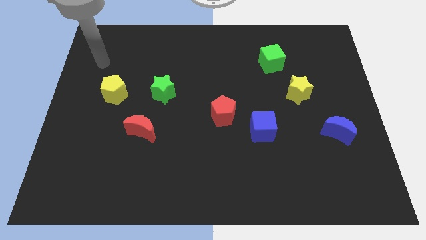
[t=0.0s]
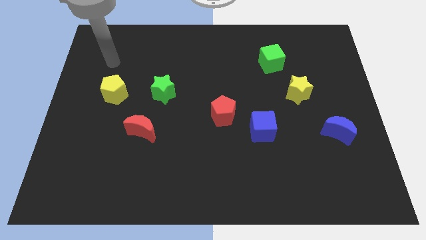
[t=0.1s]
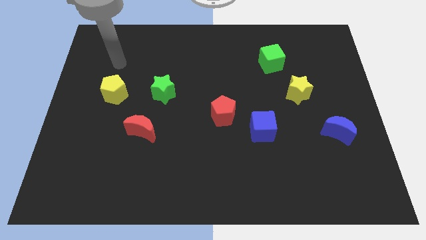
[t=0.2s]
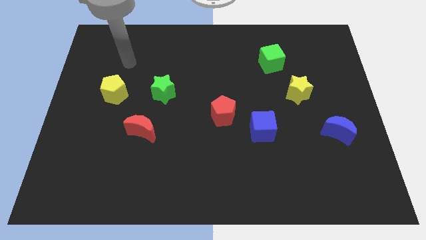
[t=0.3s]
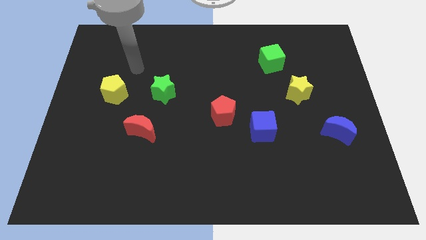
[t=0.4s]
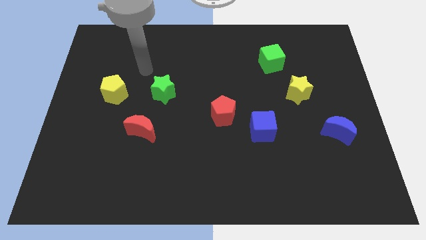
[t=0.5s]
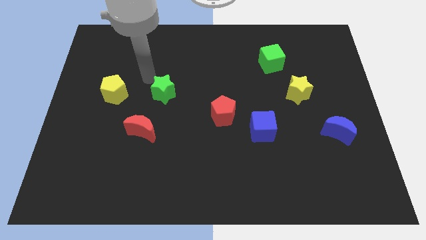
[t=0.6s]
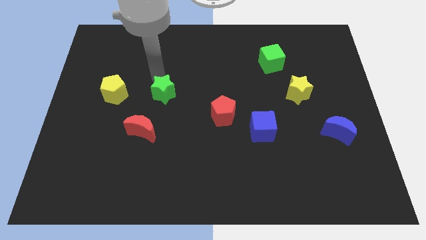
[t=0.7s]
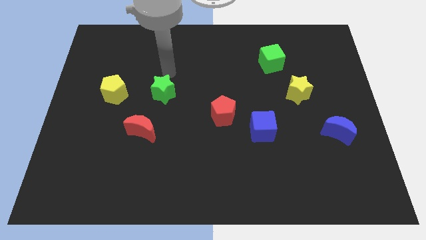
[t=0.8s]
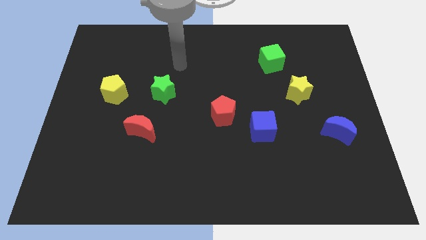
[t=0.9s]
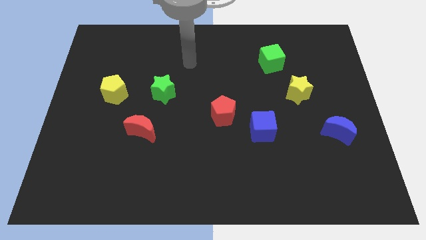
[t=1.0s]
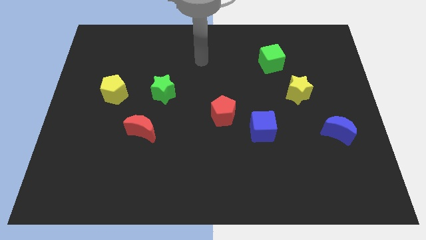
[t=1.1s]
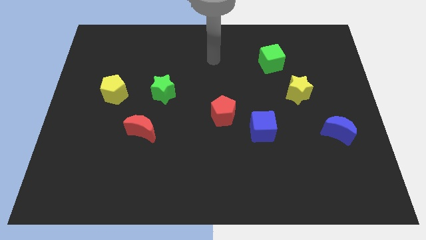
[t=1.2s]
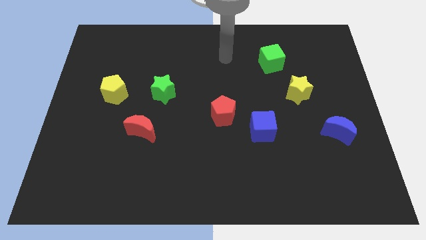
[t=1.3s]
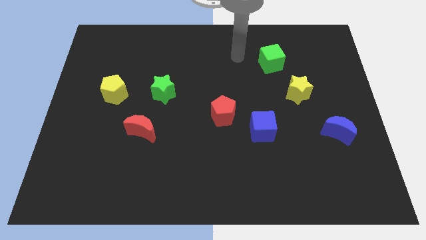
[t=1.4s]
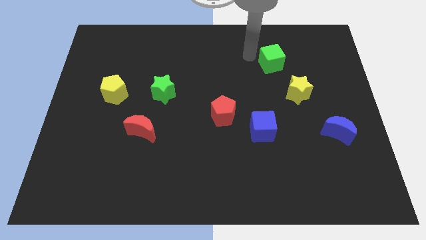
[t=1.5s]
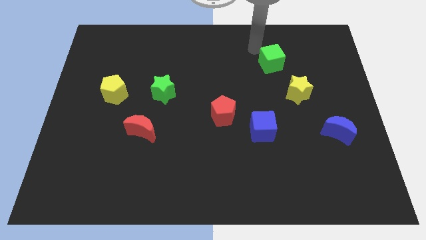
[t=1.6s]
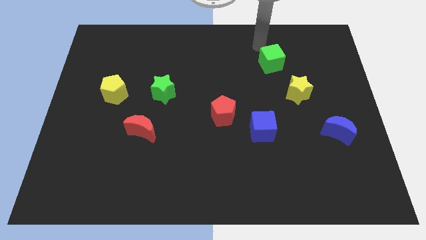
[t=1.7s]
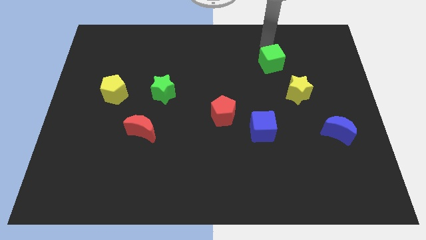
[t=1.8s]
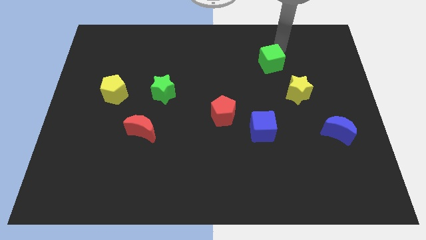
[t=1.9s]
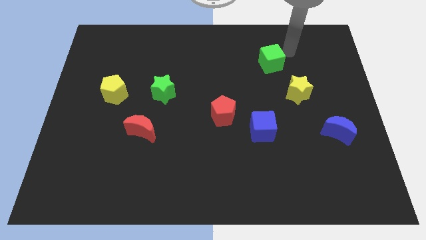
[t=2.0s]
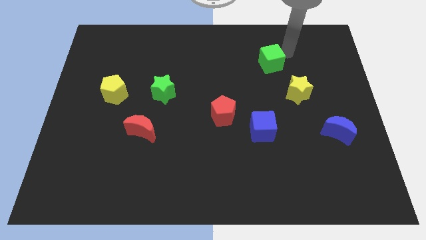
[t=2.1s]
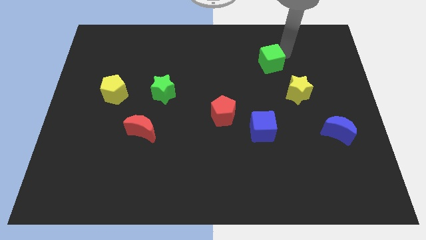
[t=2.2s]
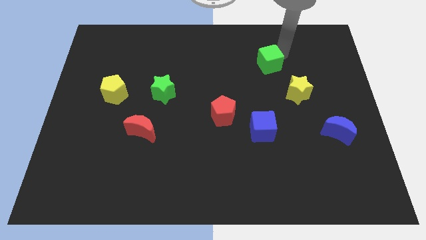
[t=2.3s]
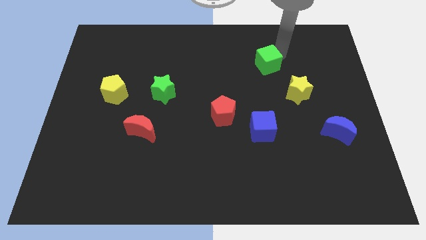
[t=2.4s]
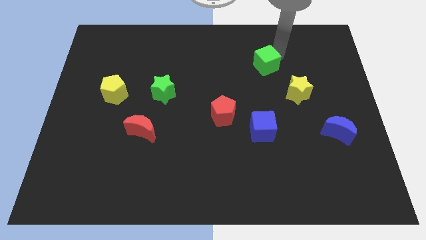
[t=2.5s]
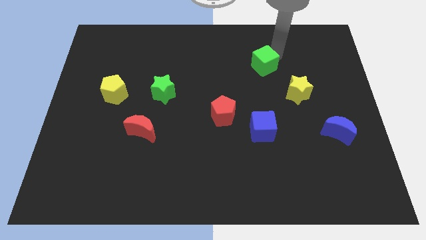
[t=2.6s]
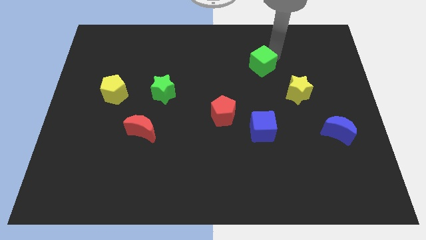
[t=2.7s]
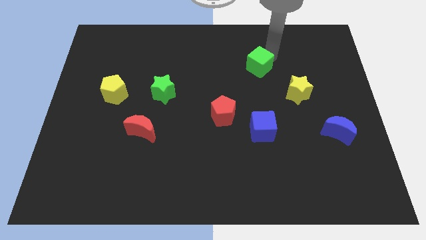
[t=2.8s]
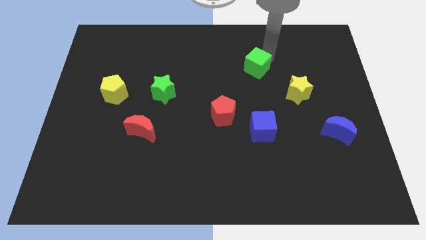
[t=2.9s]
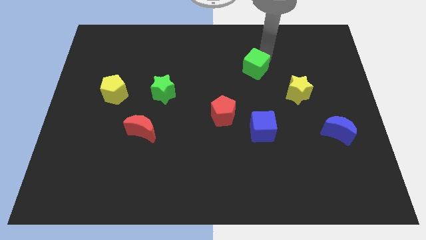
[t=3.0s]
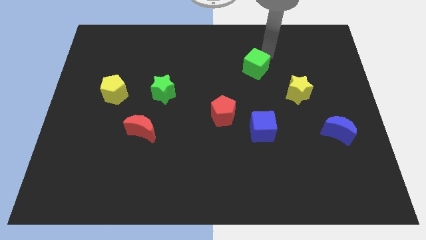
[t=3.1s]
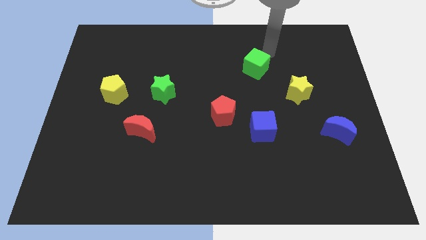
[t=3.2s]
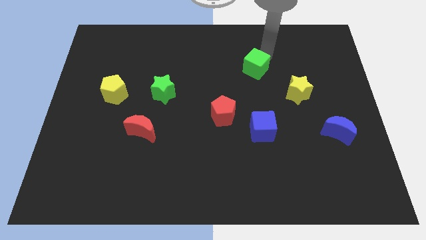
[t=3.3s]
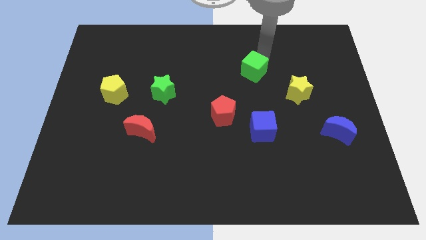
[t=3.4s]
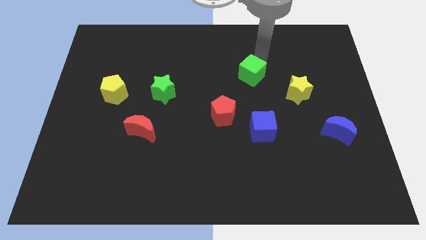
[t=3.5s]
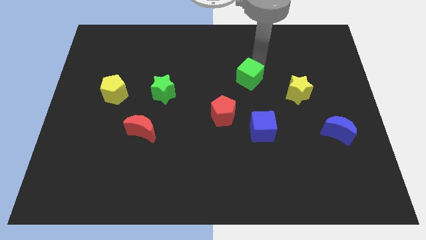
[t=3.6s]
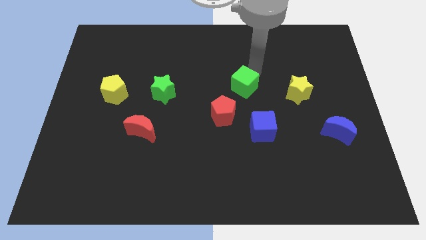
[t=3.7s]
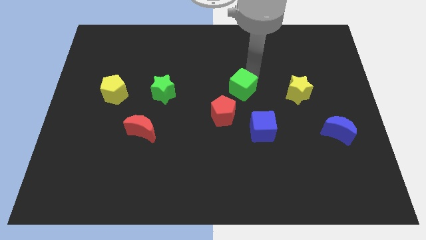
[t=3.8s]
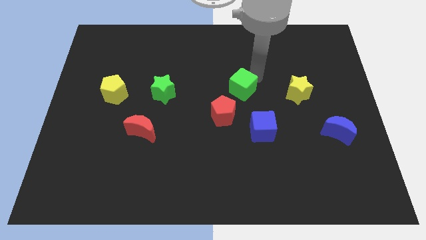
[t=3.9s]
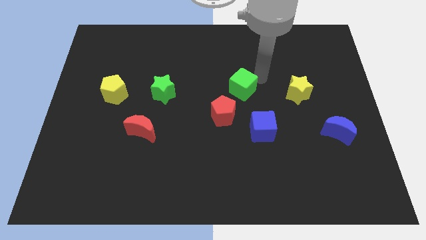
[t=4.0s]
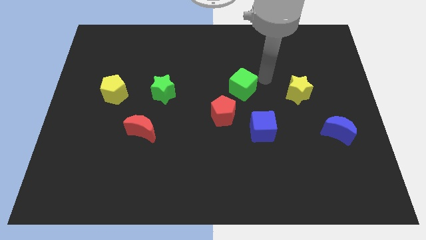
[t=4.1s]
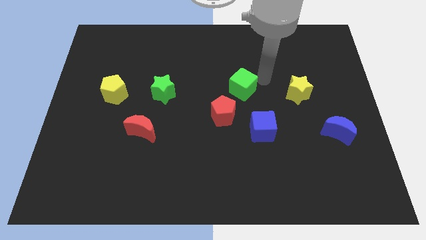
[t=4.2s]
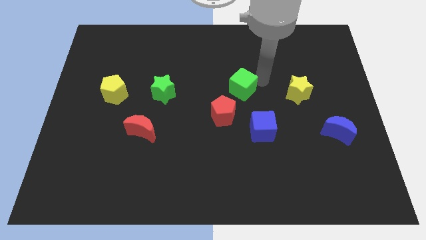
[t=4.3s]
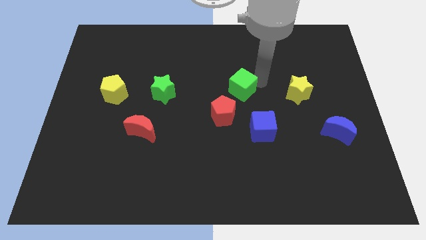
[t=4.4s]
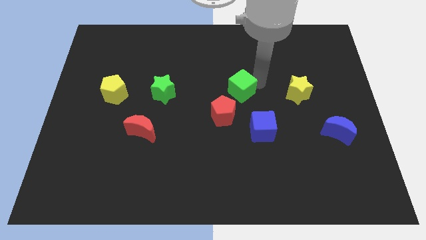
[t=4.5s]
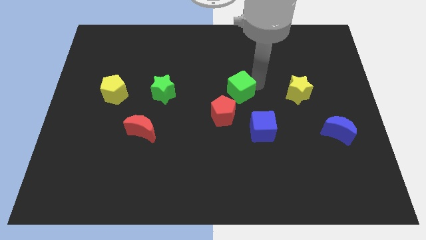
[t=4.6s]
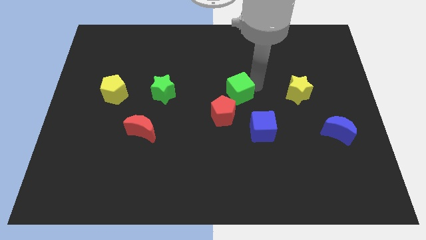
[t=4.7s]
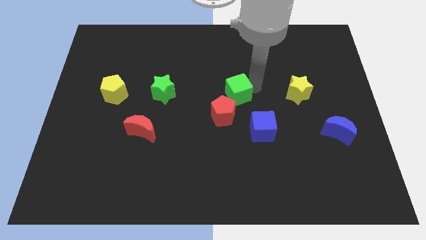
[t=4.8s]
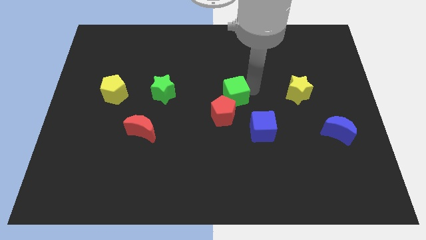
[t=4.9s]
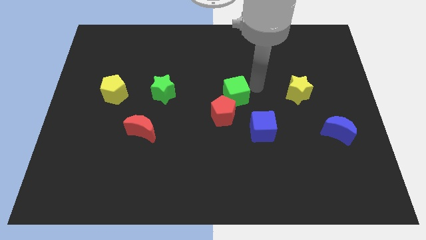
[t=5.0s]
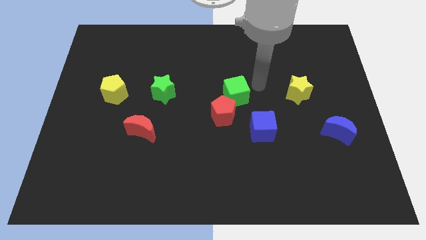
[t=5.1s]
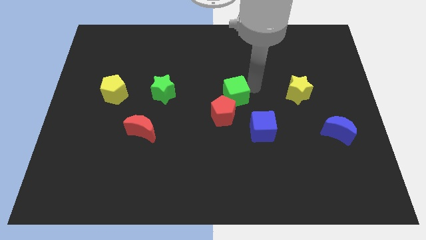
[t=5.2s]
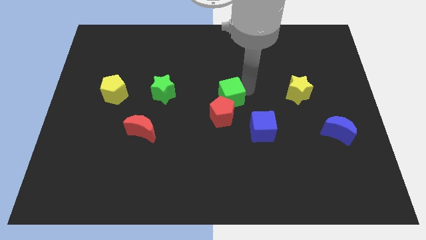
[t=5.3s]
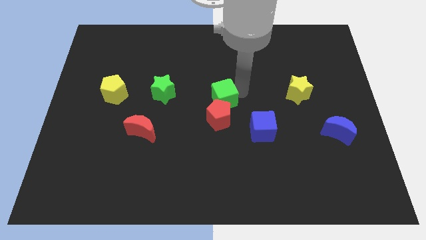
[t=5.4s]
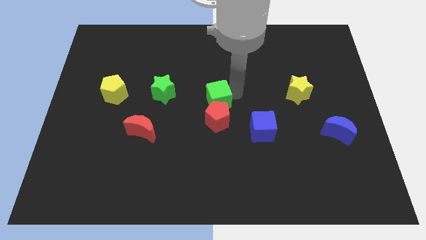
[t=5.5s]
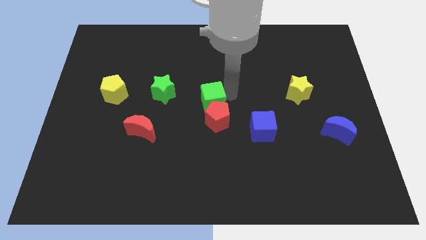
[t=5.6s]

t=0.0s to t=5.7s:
push the green cube down and to the left

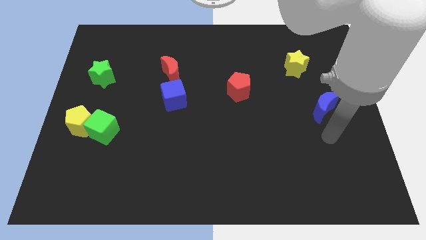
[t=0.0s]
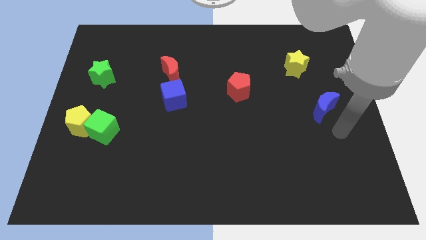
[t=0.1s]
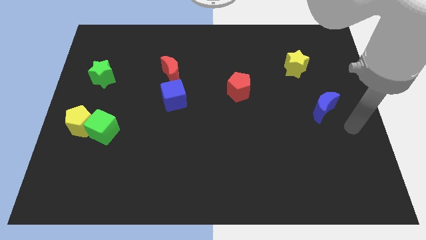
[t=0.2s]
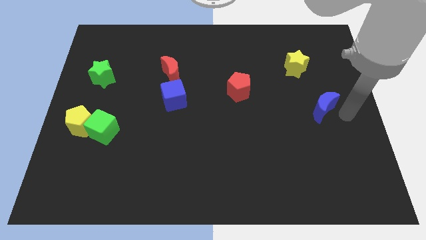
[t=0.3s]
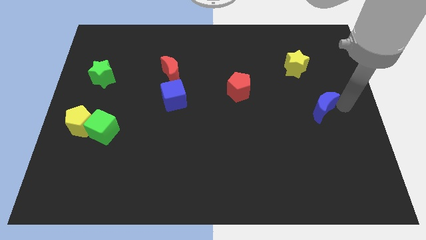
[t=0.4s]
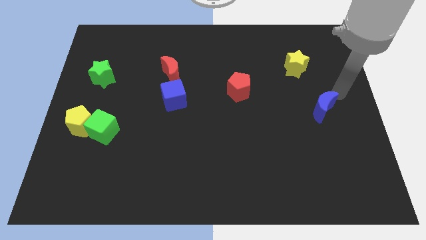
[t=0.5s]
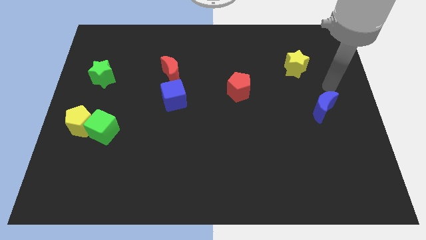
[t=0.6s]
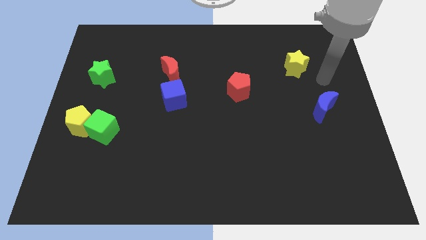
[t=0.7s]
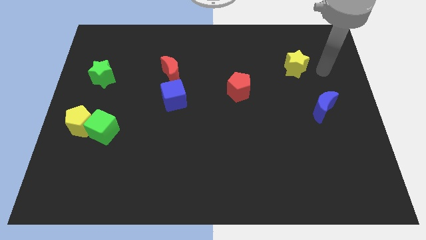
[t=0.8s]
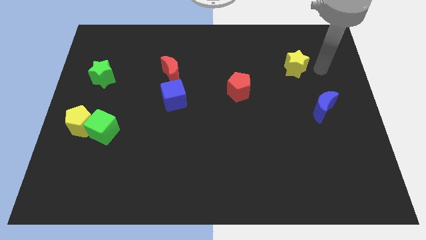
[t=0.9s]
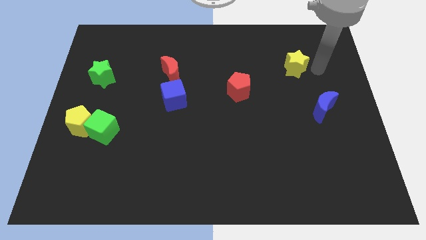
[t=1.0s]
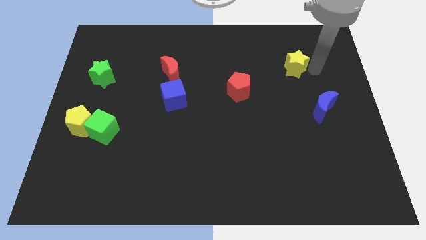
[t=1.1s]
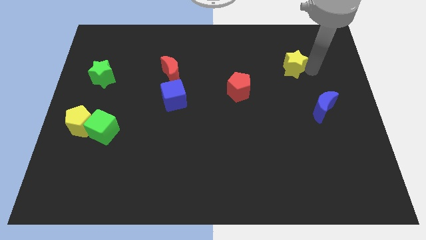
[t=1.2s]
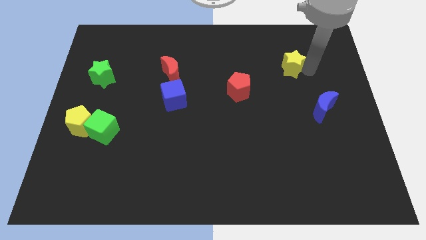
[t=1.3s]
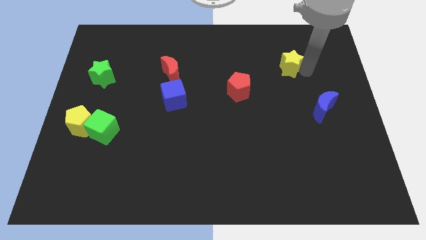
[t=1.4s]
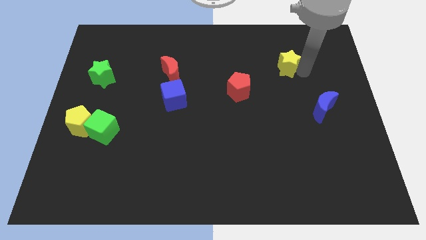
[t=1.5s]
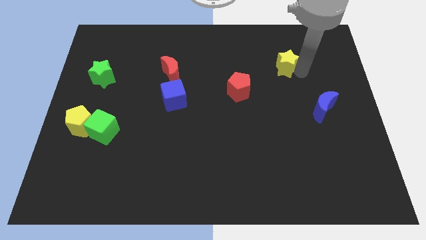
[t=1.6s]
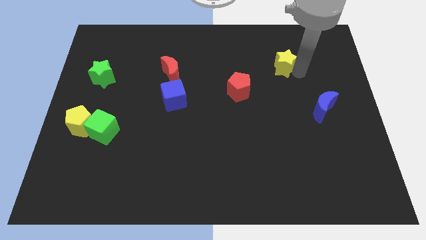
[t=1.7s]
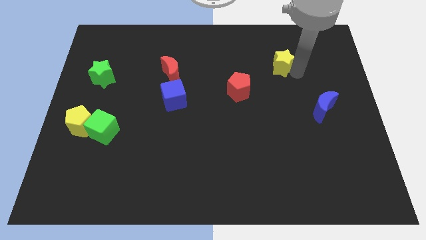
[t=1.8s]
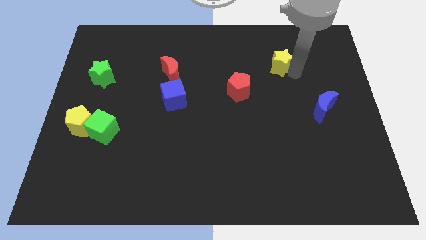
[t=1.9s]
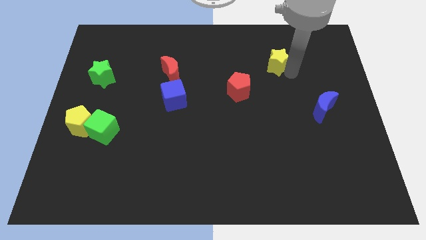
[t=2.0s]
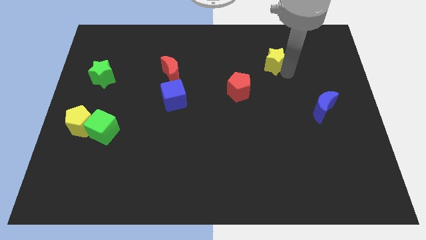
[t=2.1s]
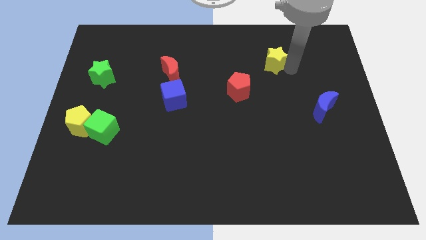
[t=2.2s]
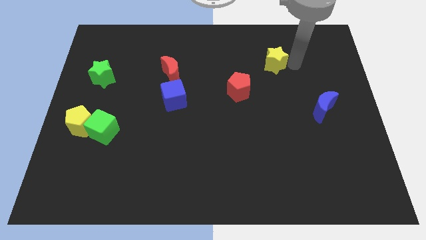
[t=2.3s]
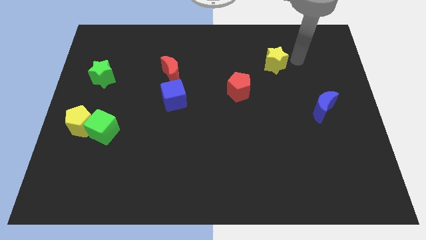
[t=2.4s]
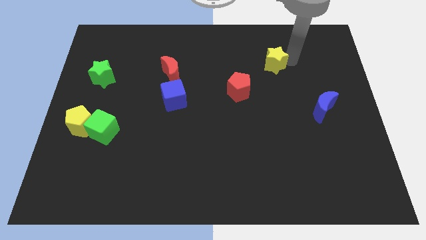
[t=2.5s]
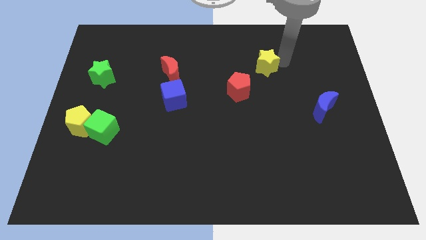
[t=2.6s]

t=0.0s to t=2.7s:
slightly move the yellow star left
